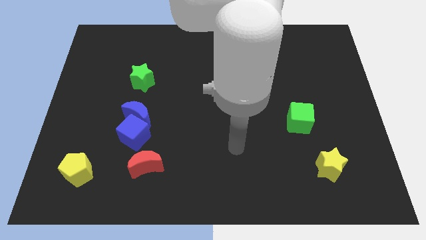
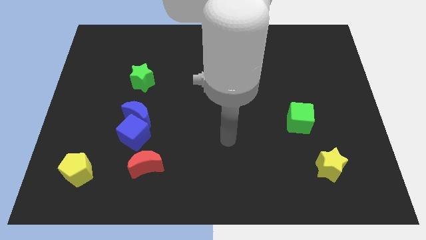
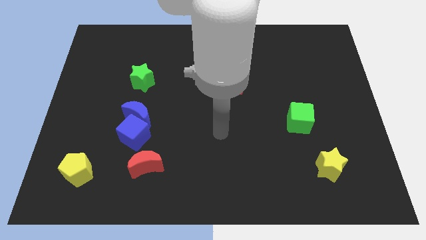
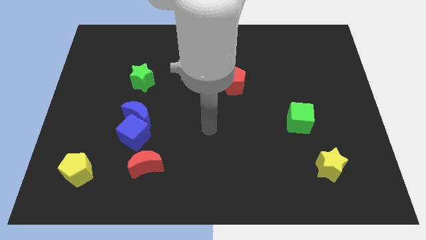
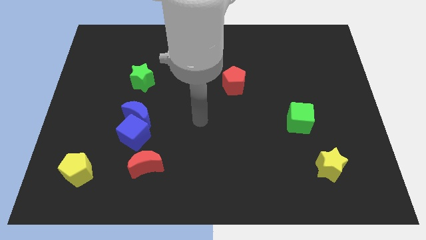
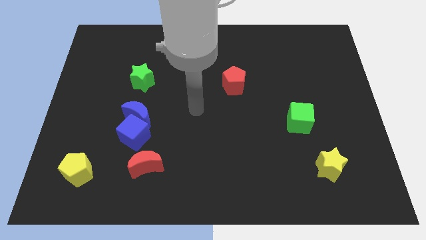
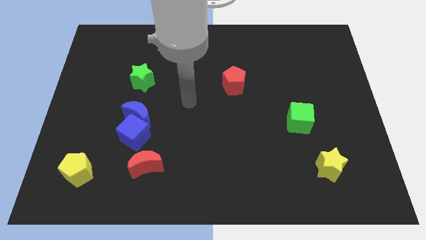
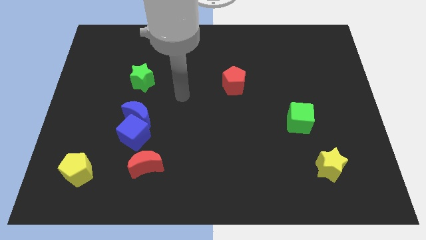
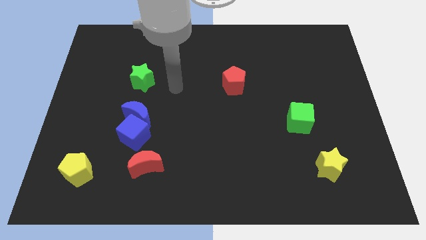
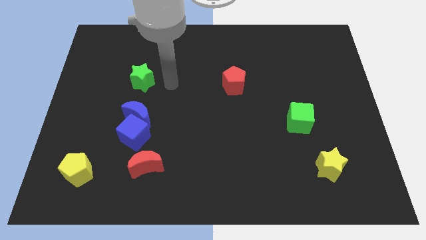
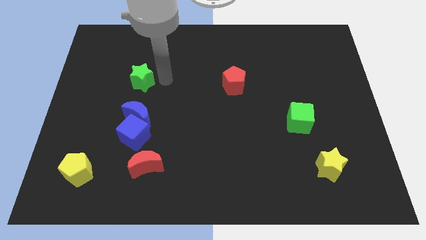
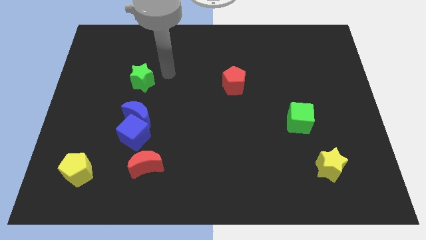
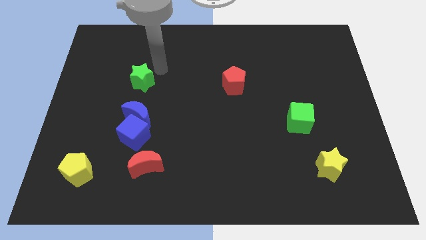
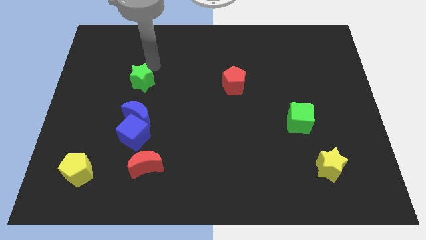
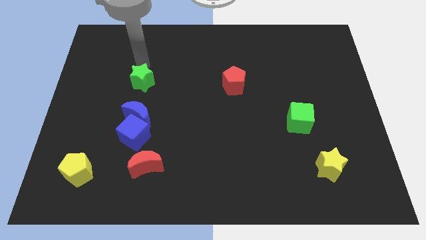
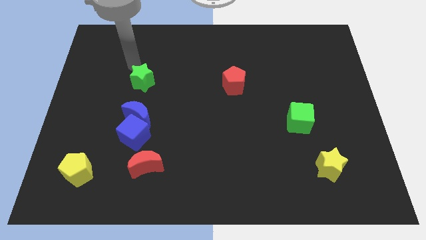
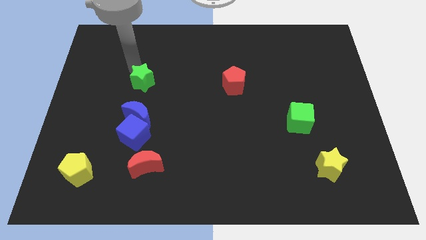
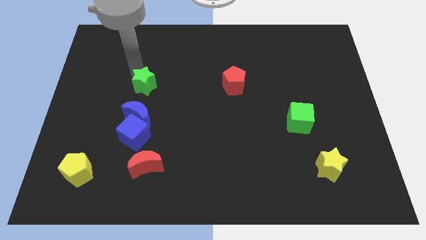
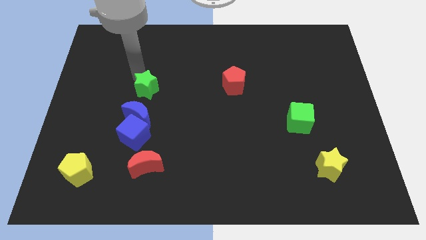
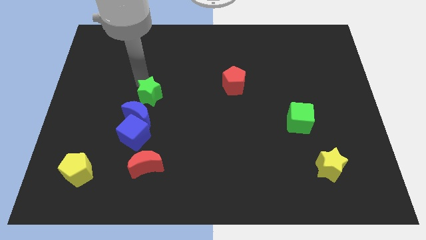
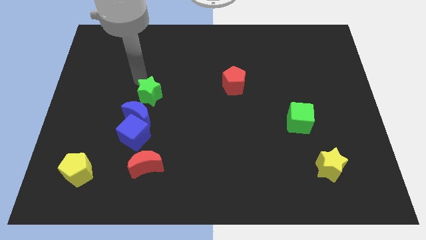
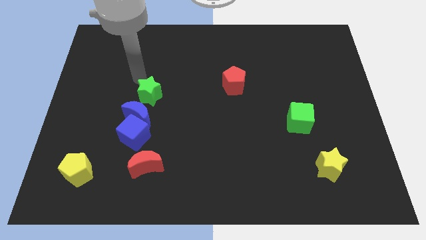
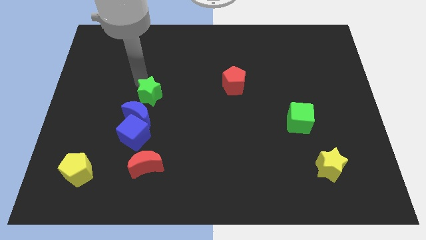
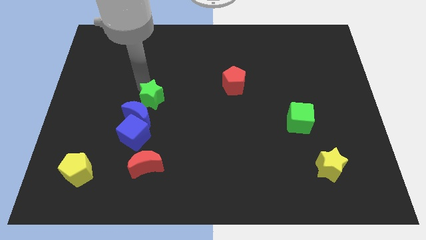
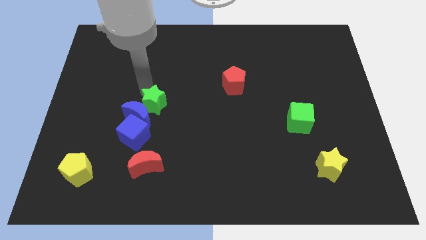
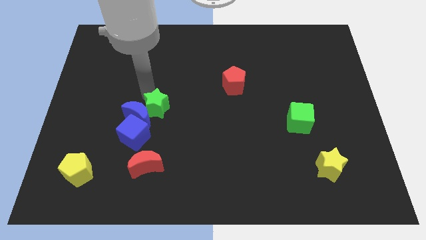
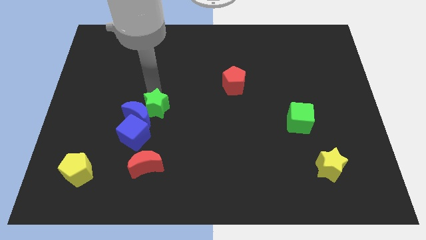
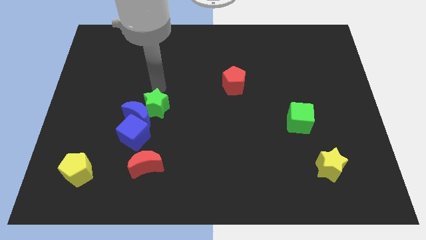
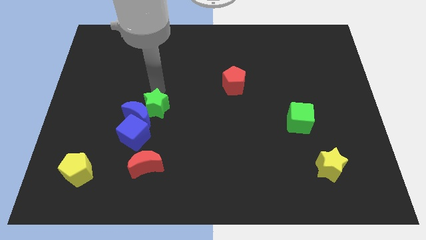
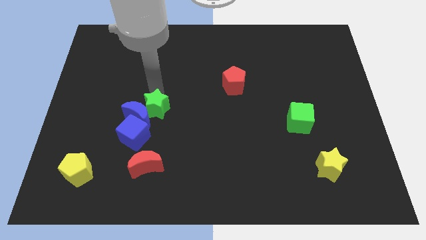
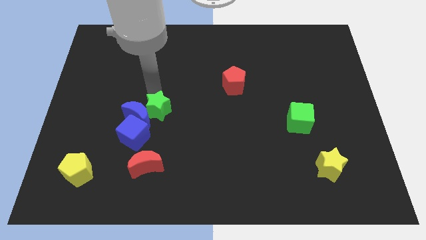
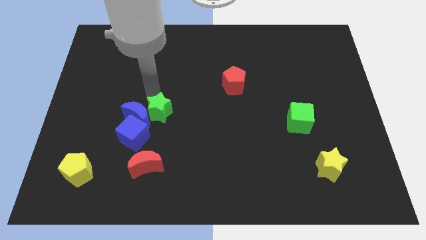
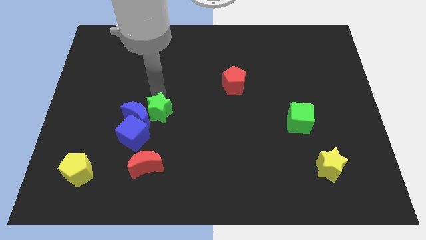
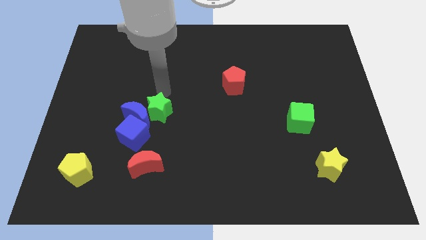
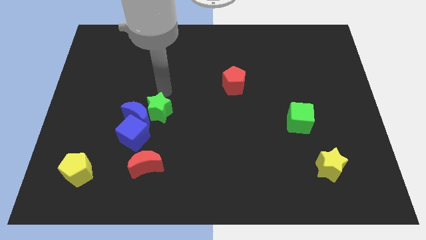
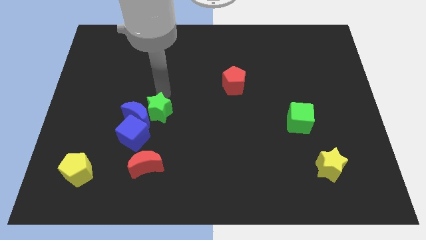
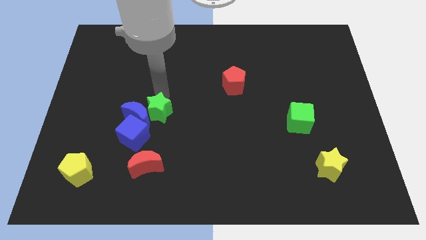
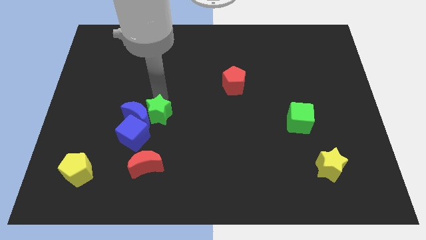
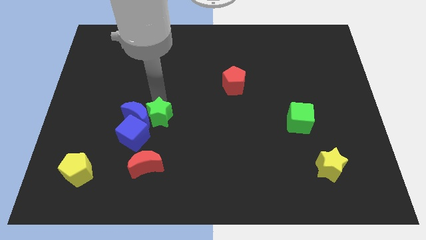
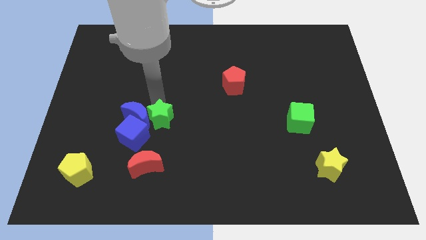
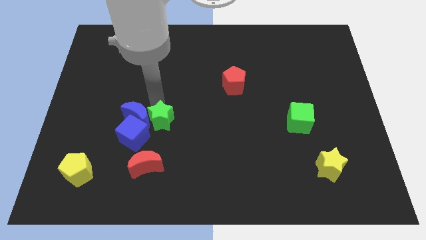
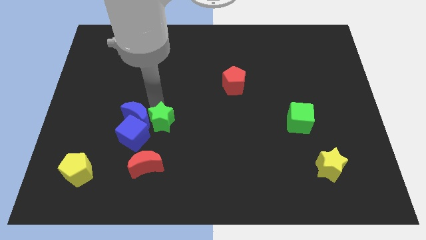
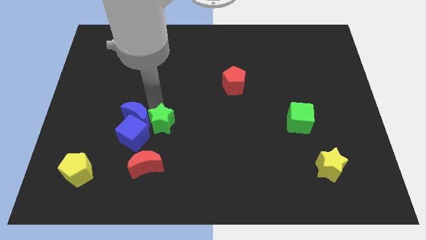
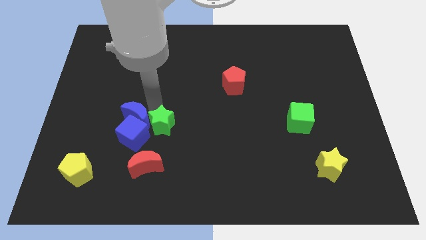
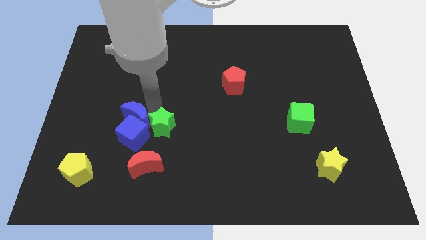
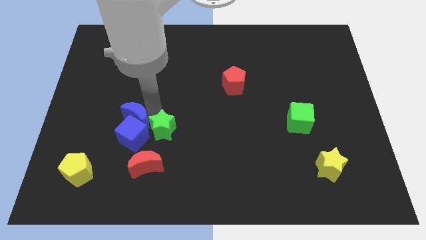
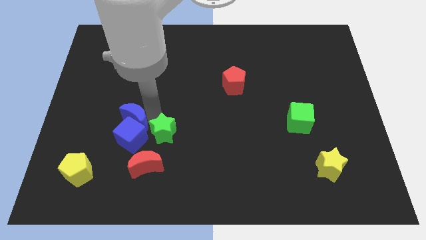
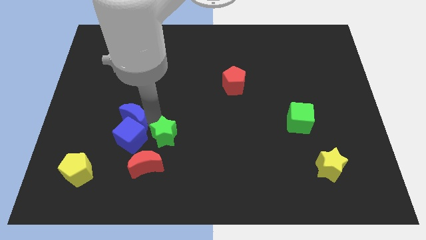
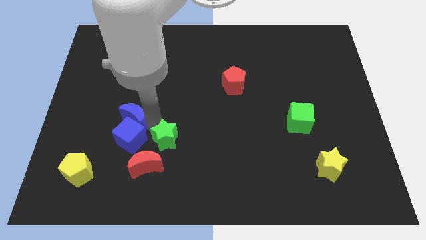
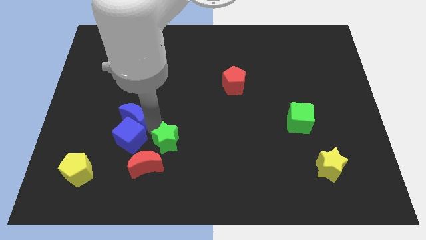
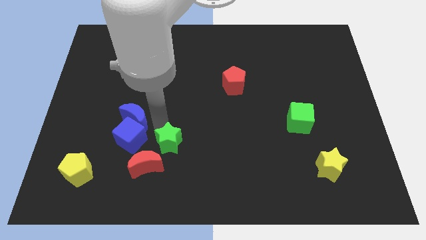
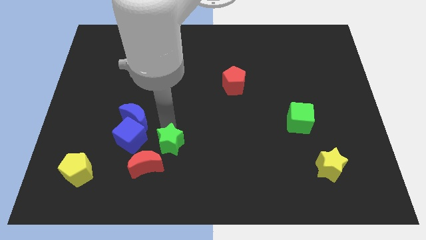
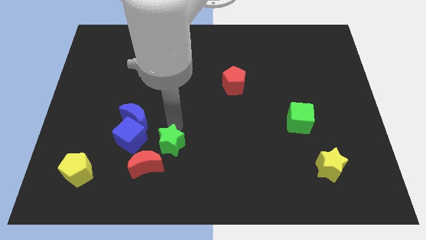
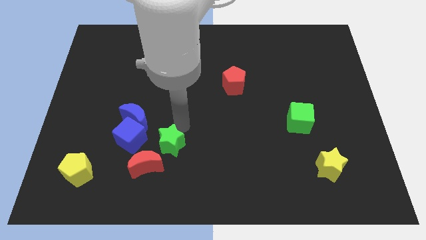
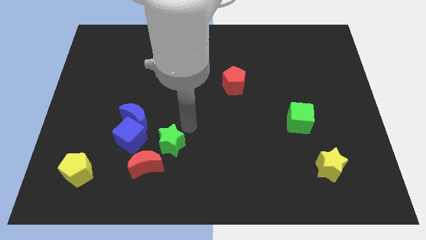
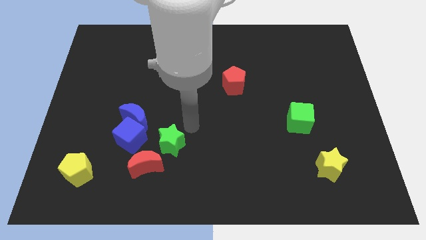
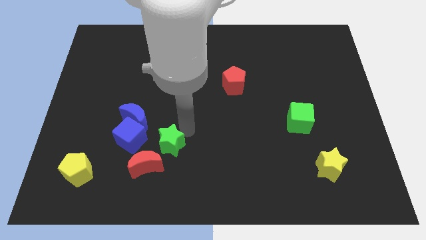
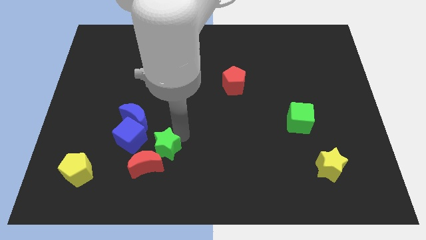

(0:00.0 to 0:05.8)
move the green star towards the red moon

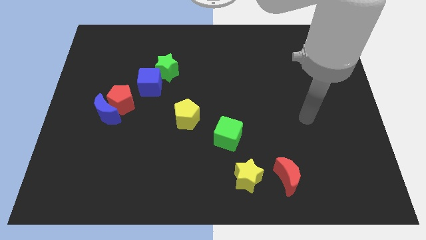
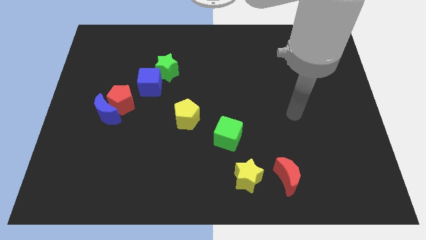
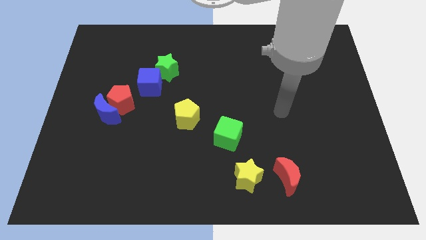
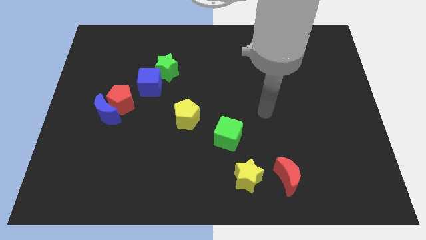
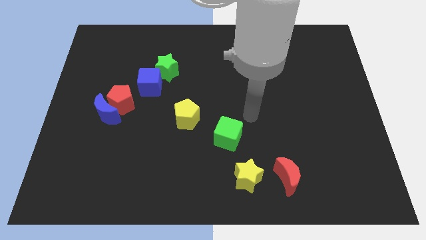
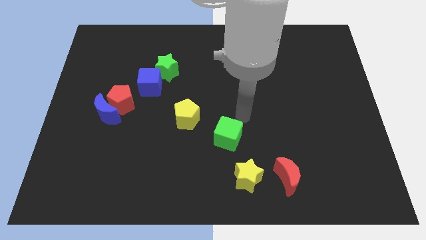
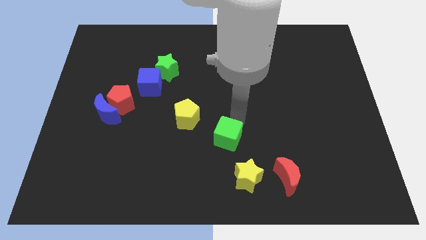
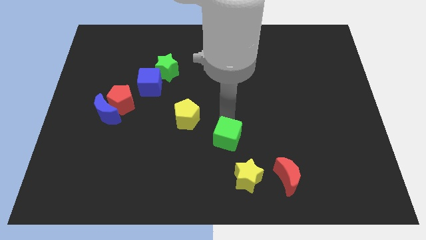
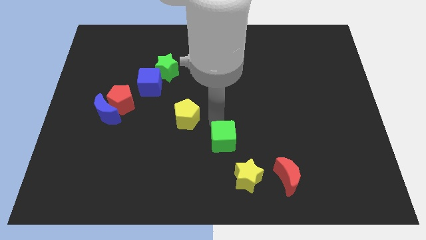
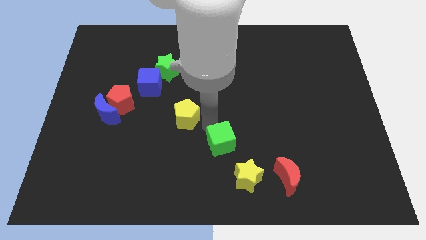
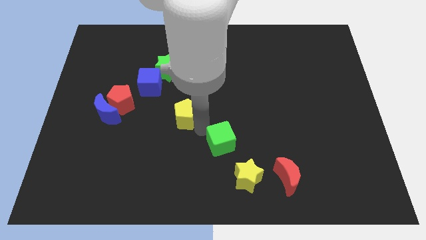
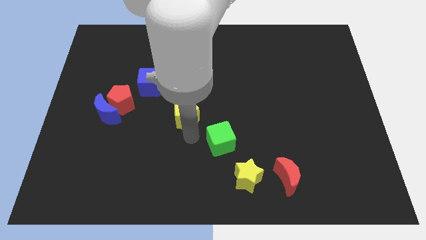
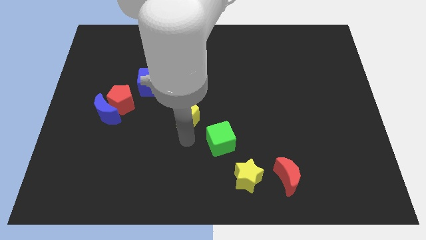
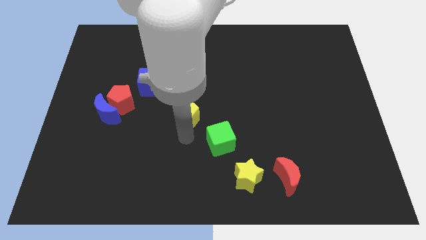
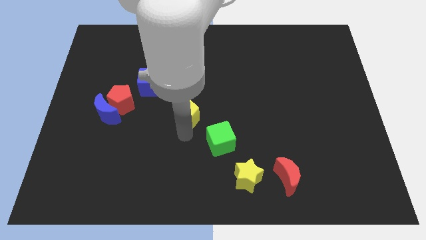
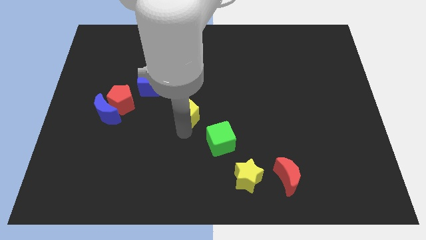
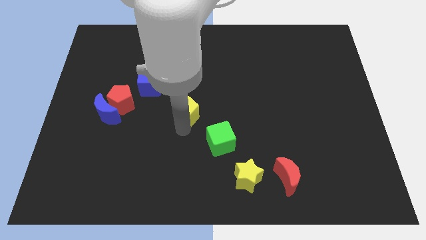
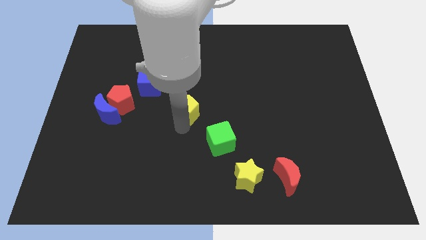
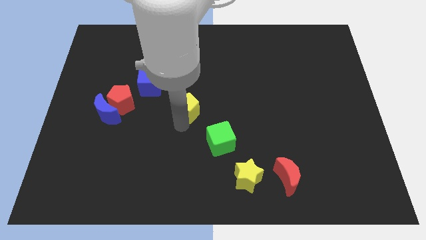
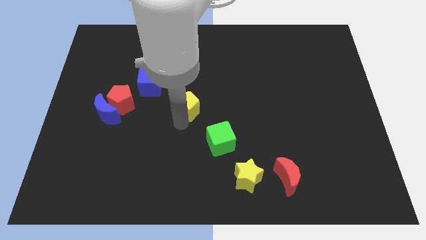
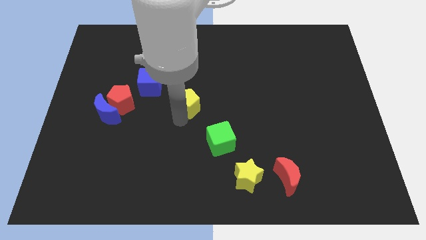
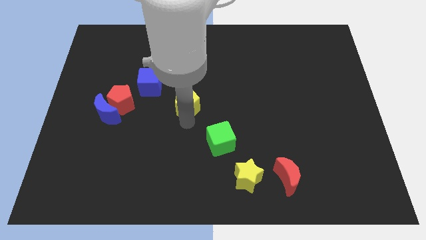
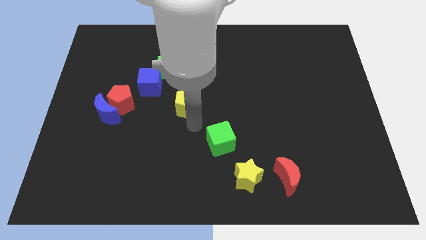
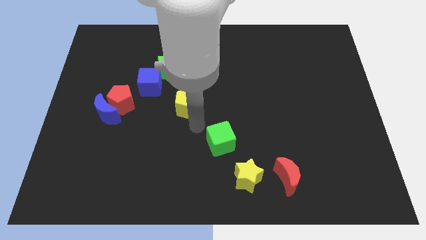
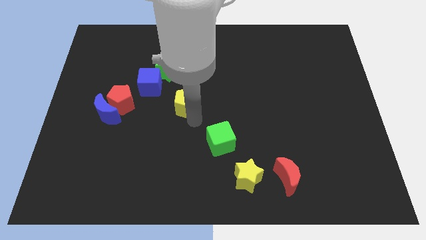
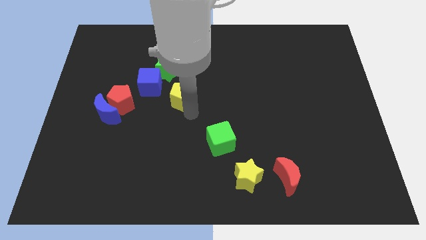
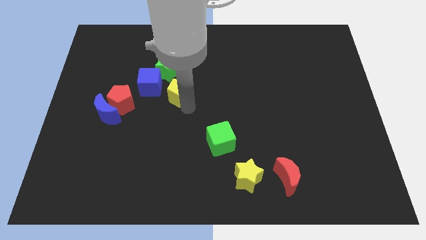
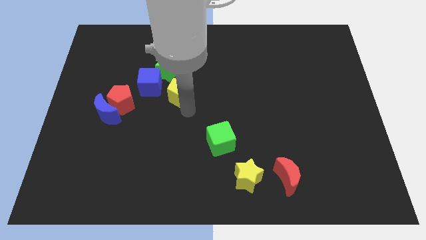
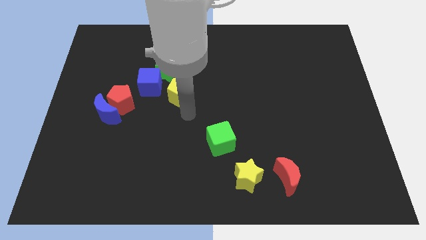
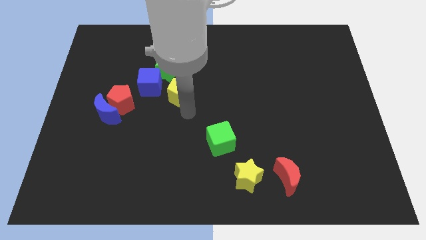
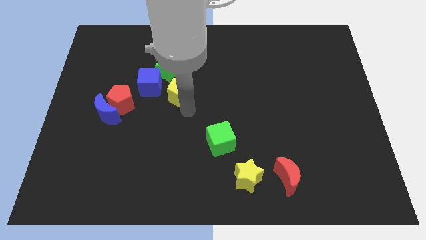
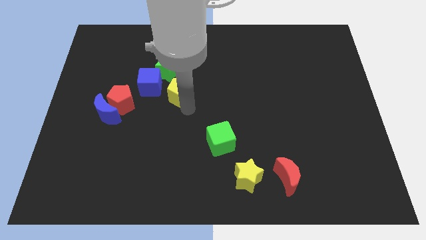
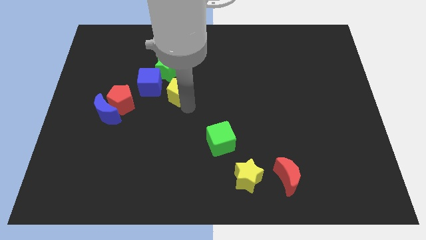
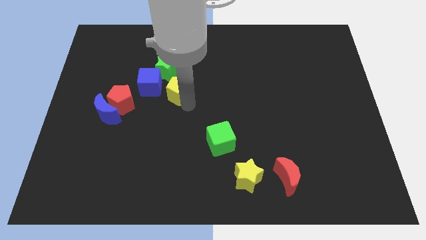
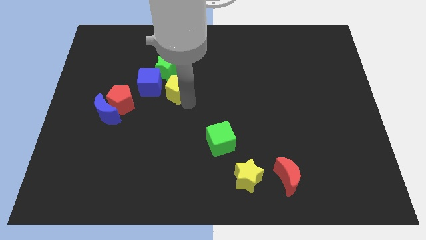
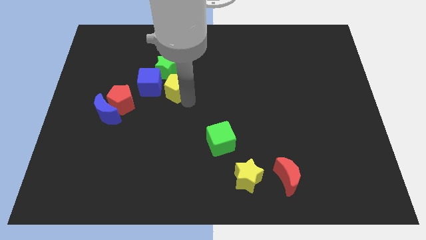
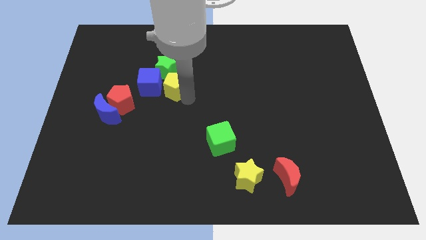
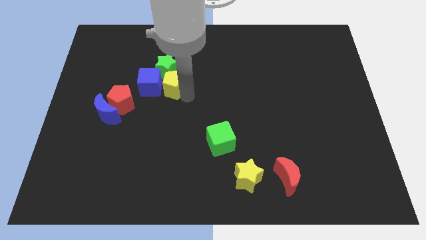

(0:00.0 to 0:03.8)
slide the yellow pentagon next to the green star
